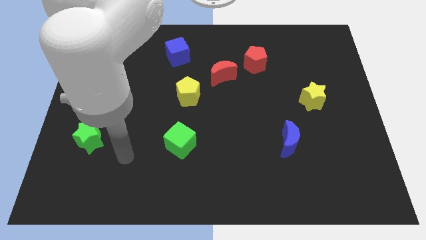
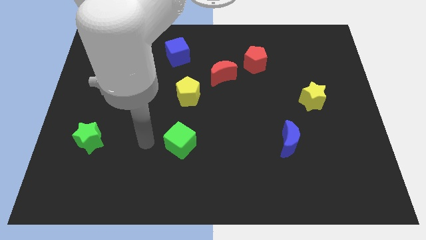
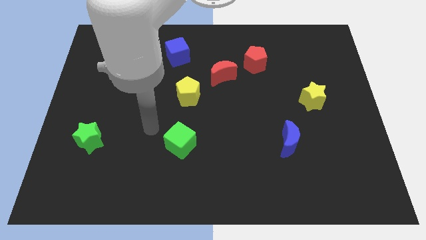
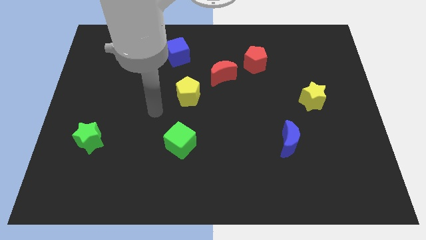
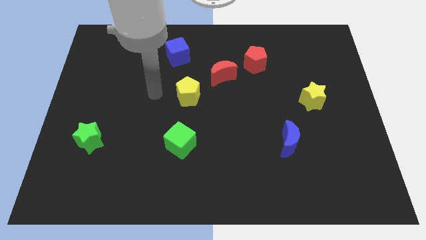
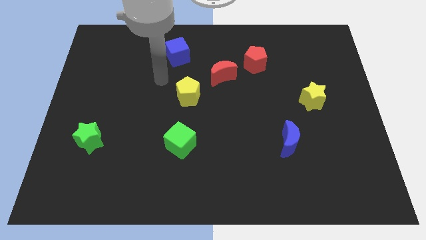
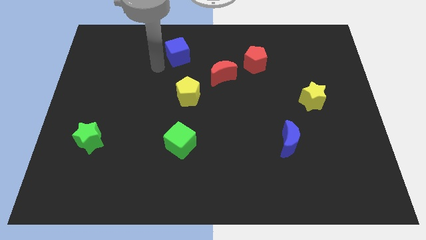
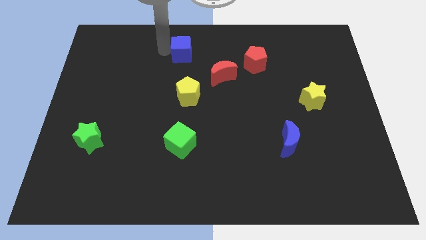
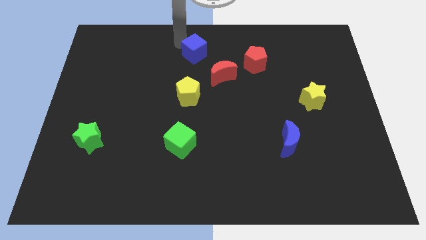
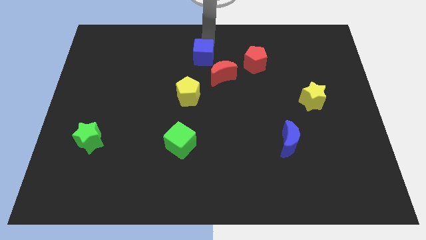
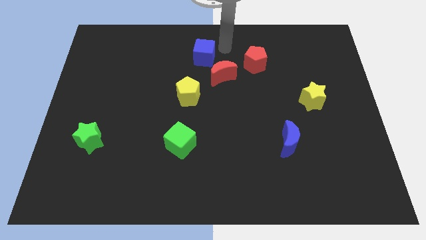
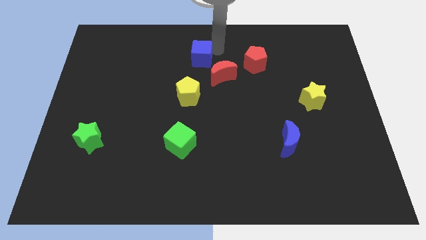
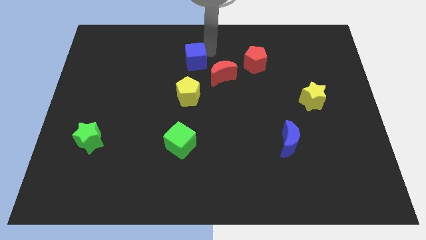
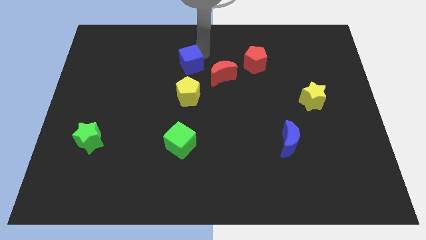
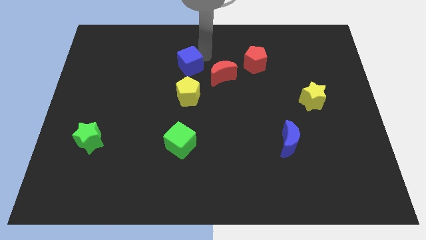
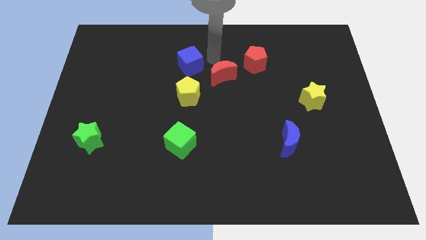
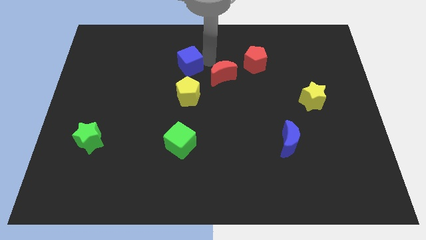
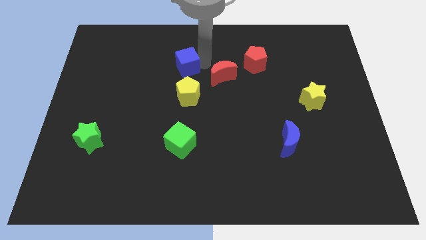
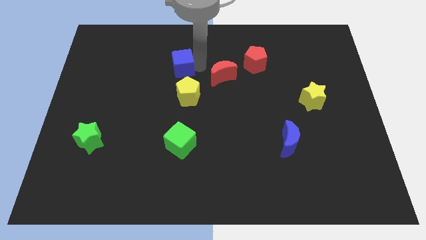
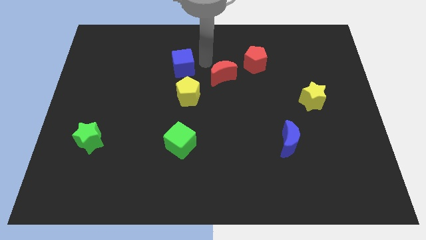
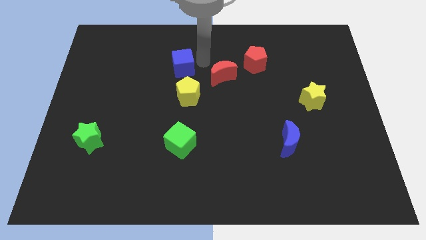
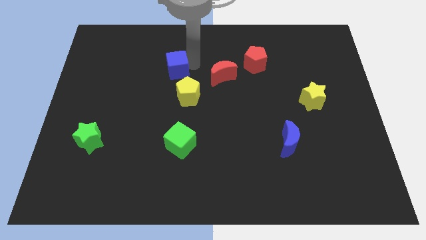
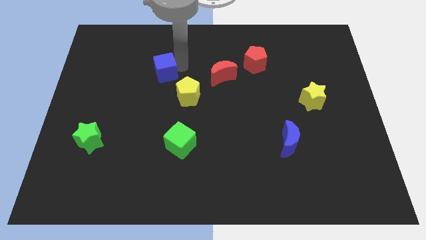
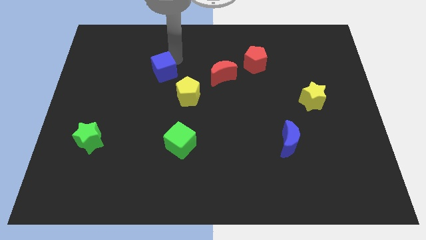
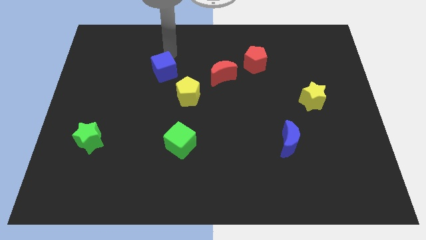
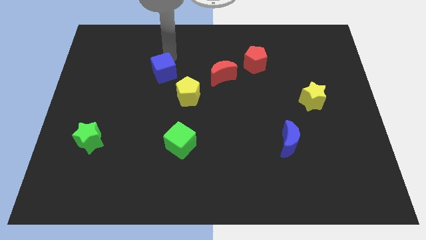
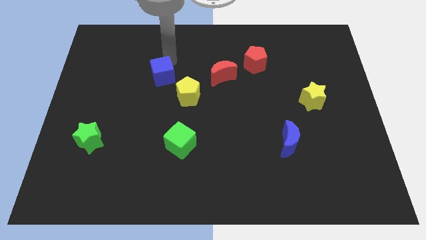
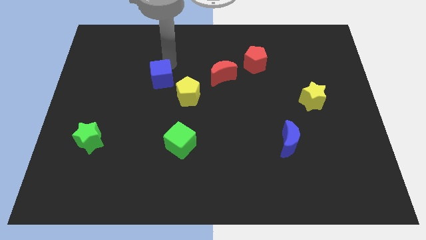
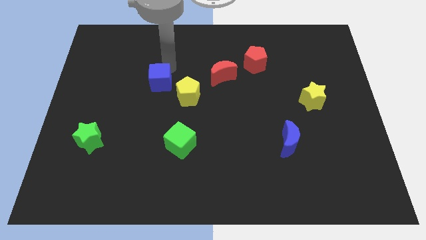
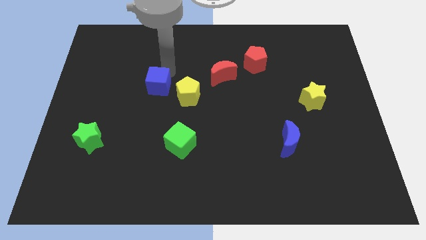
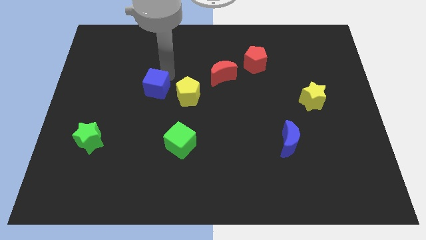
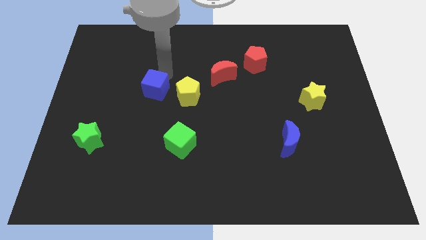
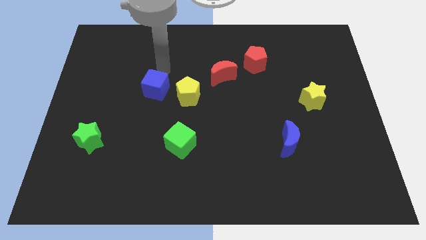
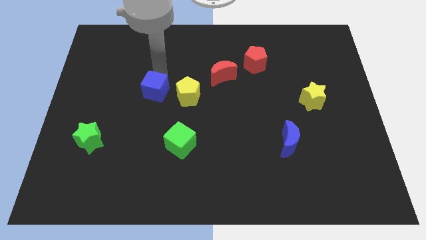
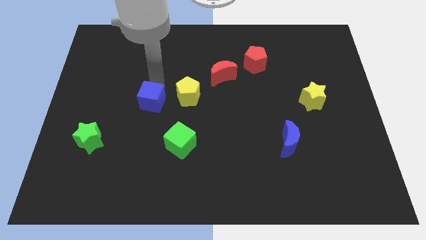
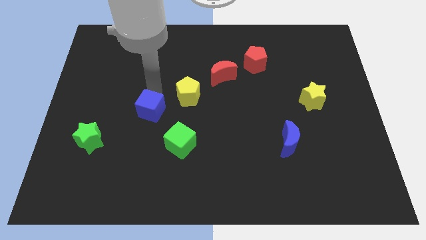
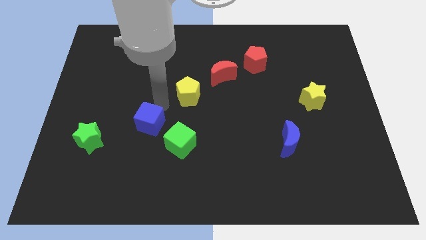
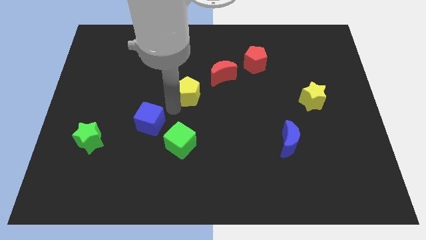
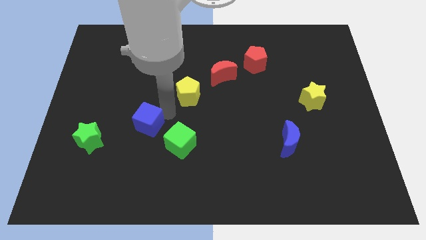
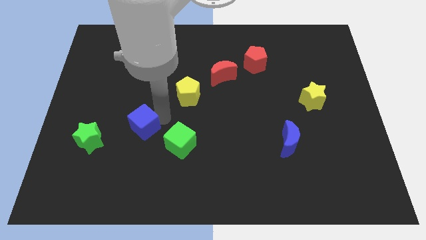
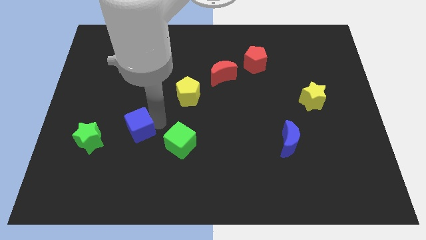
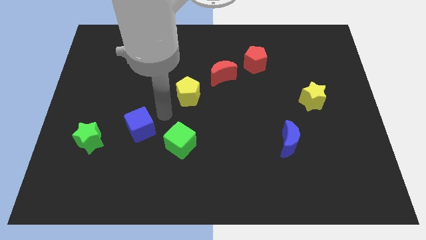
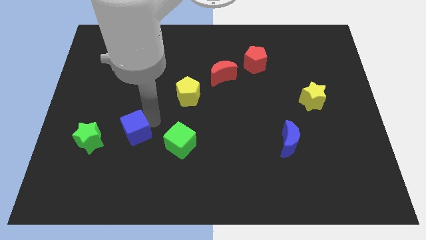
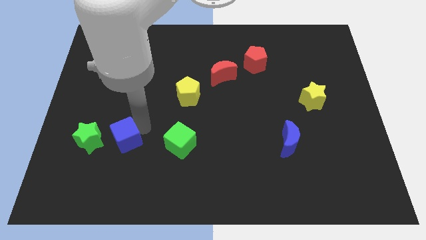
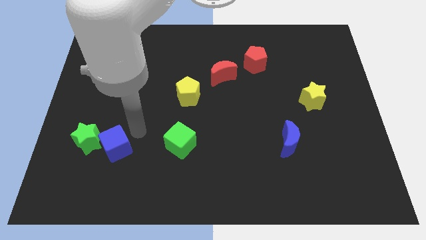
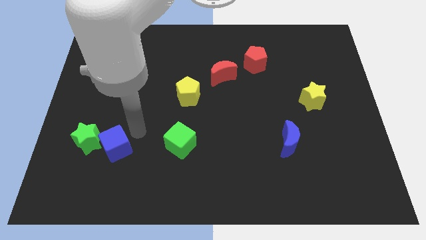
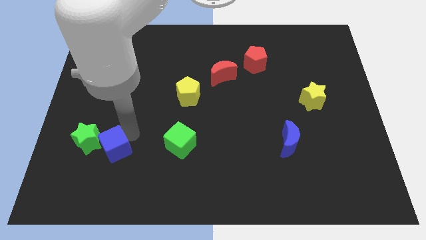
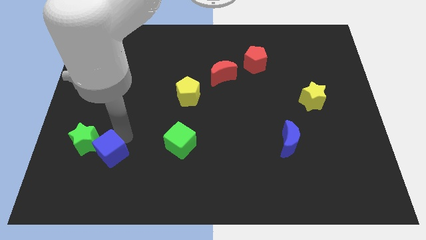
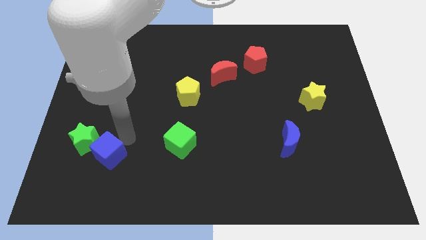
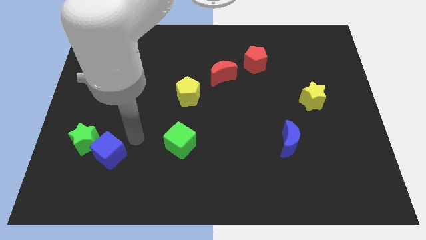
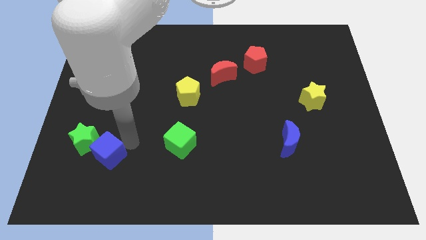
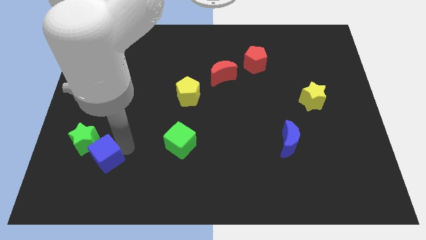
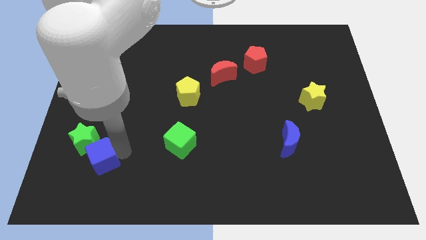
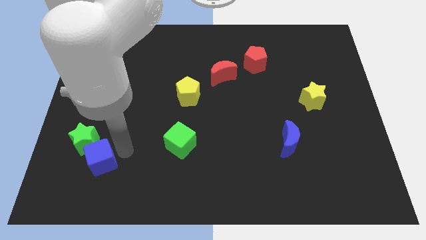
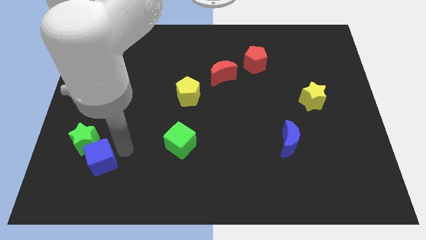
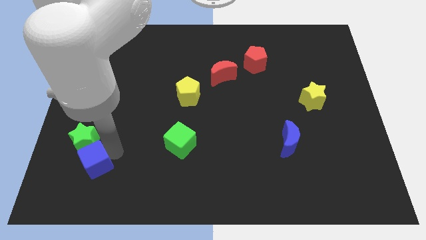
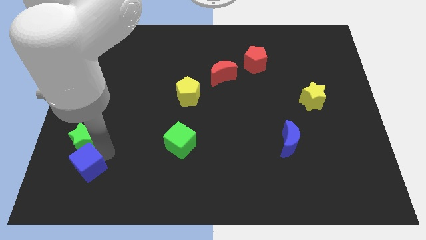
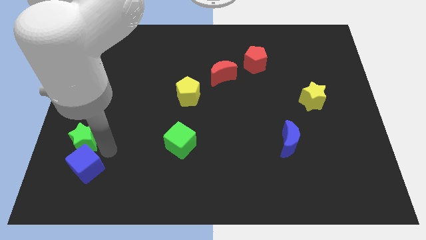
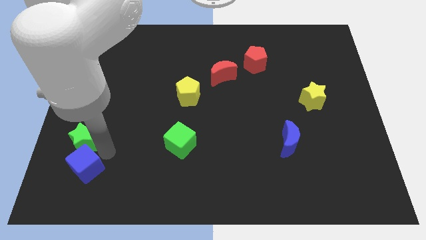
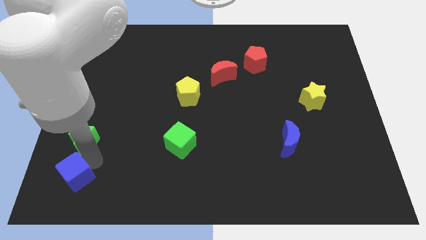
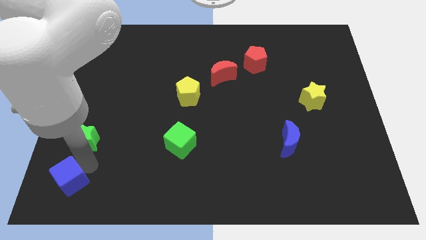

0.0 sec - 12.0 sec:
put the blue cube to the bottom left of the board

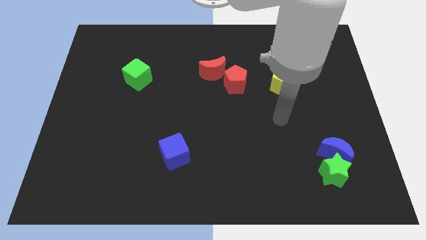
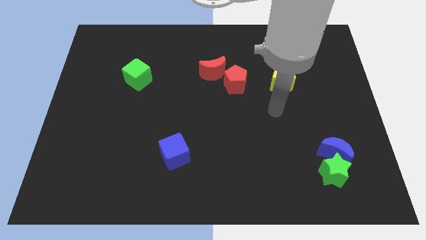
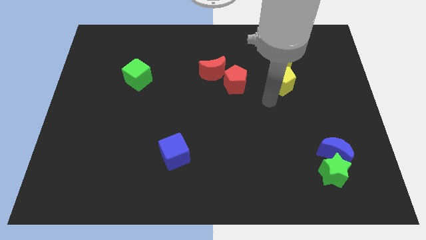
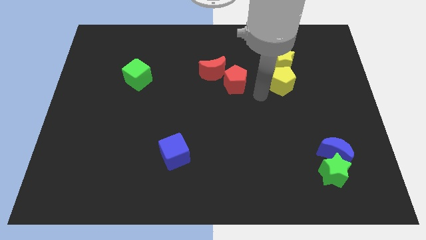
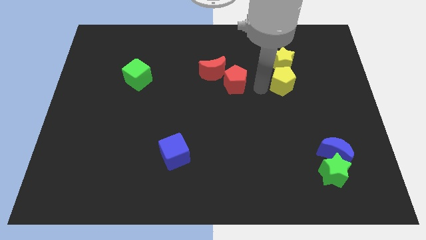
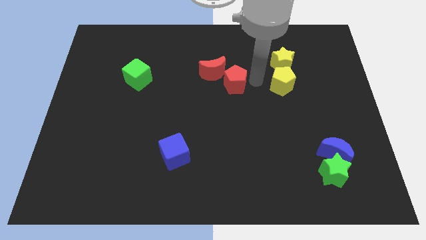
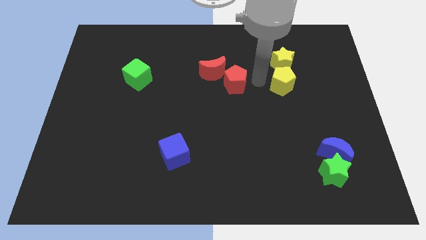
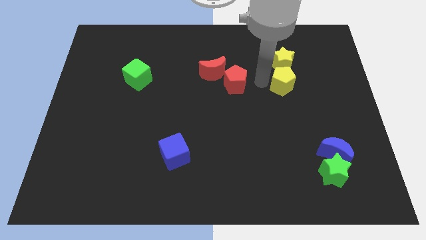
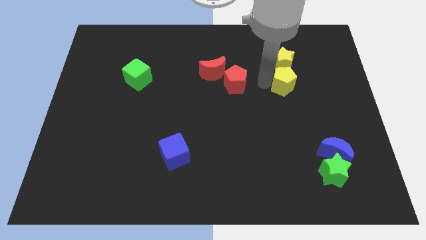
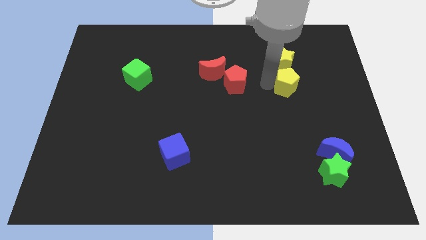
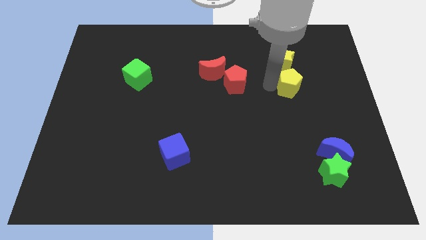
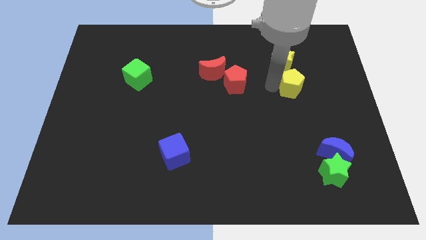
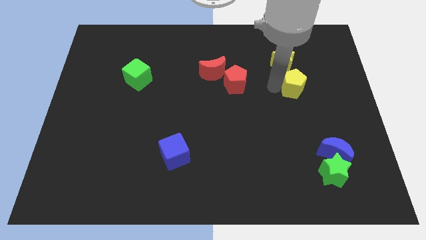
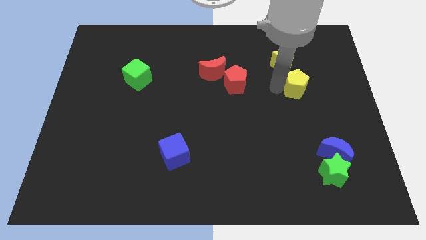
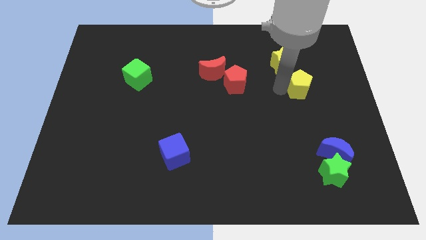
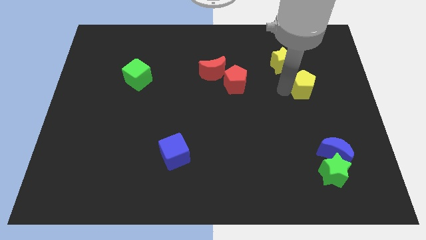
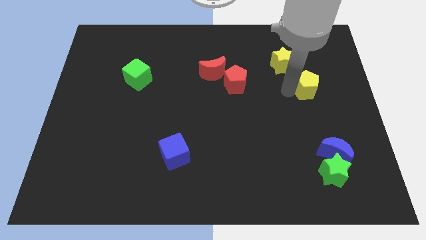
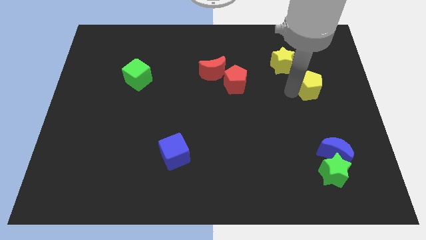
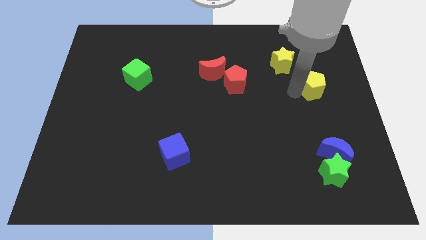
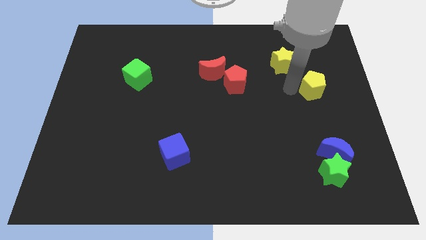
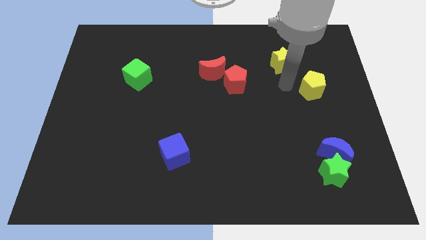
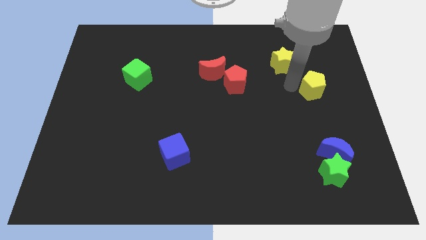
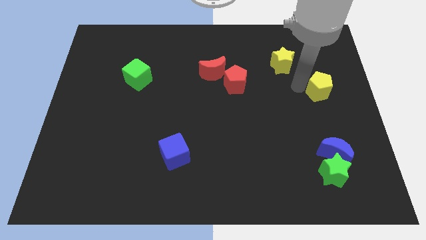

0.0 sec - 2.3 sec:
move the yellow pentagon to the center right
